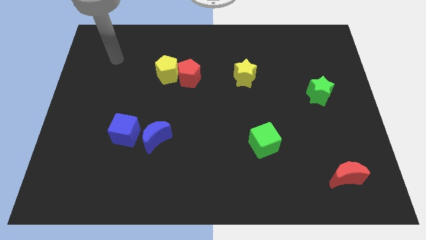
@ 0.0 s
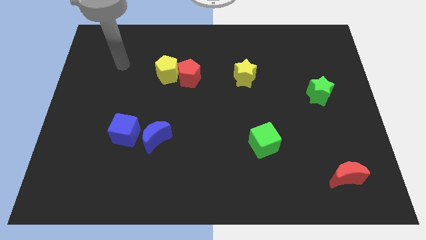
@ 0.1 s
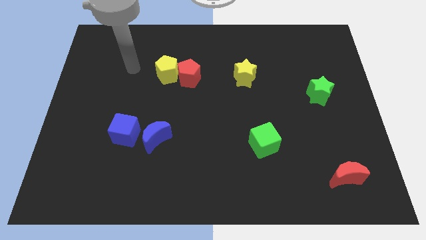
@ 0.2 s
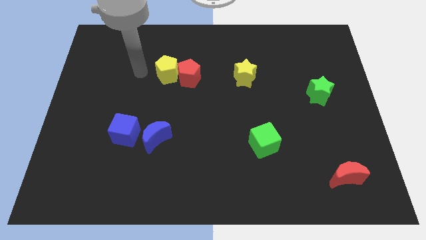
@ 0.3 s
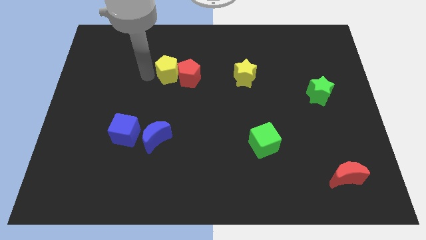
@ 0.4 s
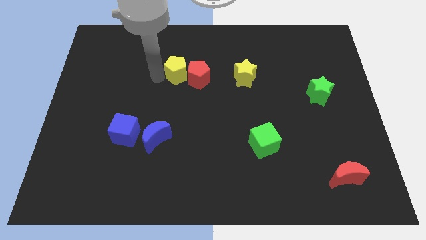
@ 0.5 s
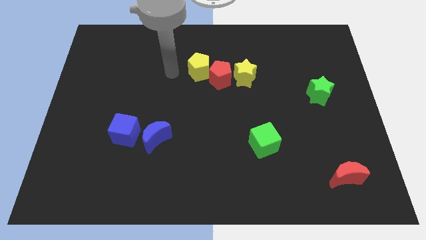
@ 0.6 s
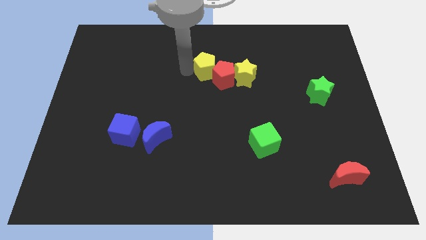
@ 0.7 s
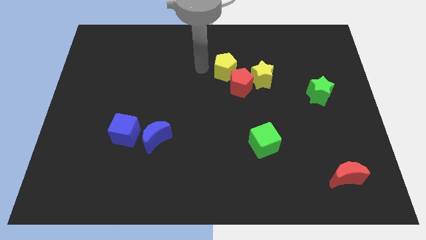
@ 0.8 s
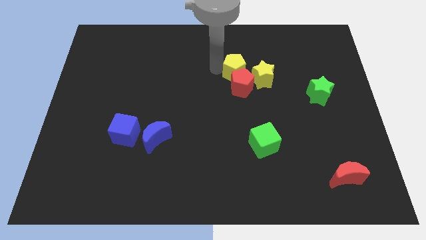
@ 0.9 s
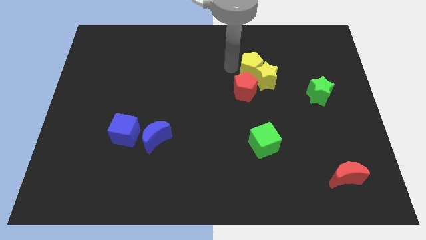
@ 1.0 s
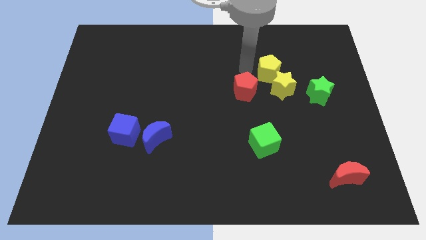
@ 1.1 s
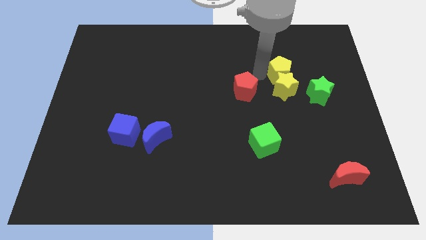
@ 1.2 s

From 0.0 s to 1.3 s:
pull the red pentagon apart from the yellow pentagon

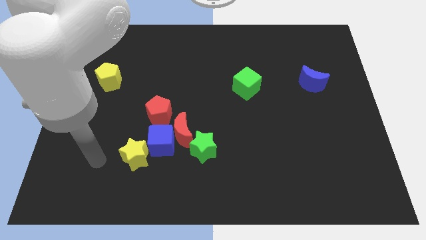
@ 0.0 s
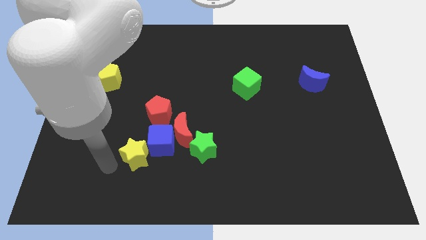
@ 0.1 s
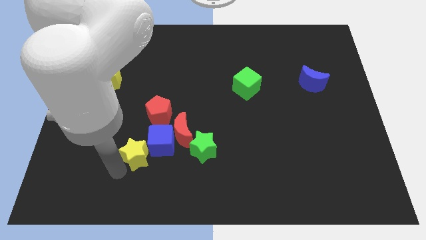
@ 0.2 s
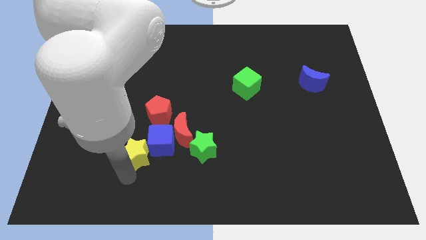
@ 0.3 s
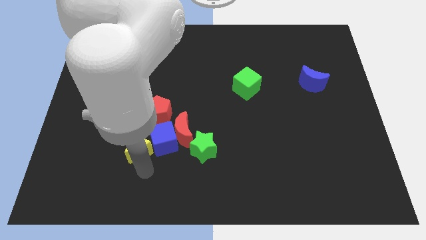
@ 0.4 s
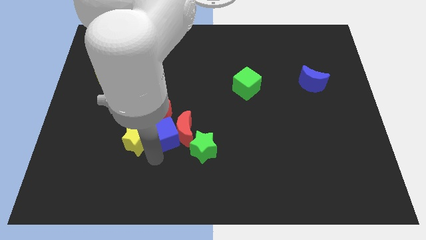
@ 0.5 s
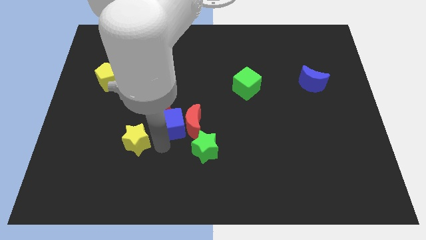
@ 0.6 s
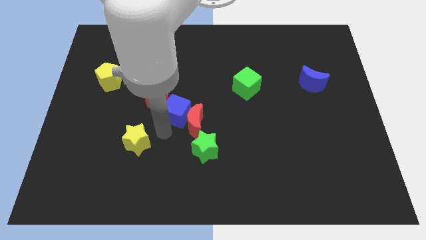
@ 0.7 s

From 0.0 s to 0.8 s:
pull the yellow star apart from the blue cube

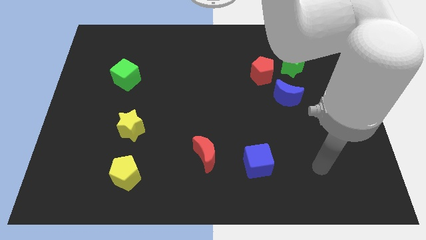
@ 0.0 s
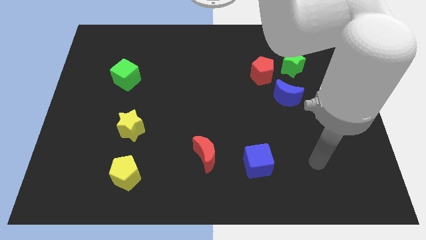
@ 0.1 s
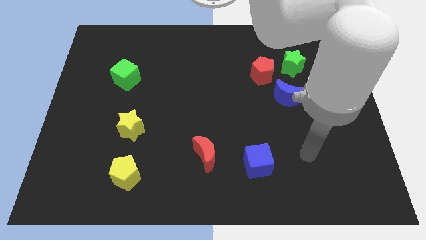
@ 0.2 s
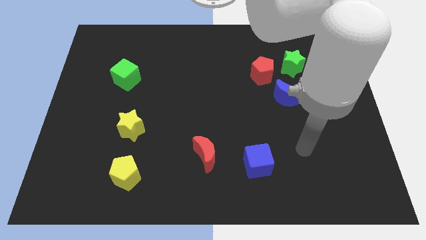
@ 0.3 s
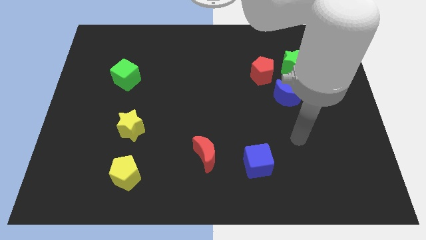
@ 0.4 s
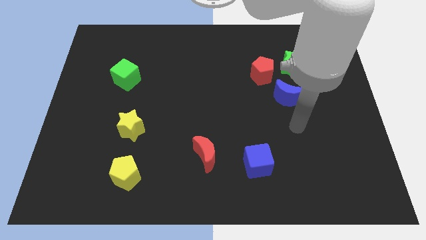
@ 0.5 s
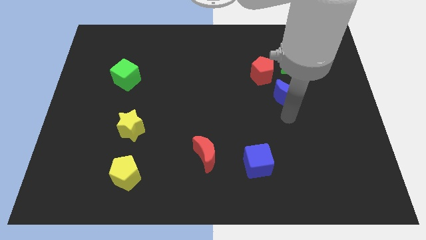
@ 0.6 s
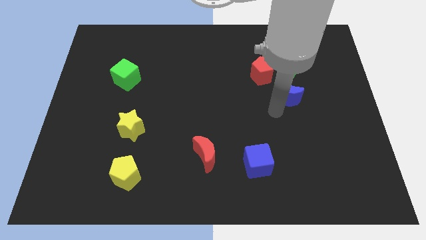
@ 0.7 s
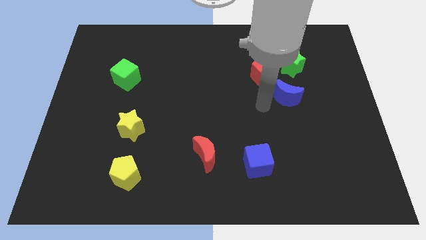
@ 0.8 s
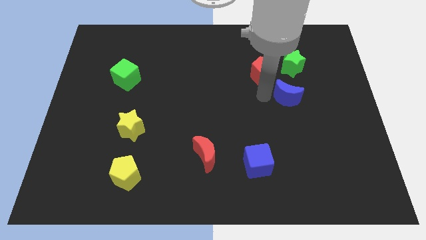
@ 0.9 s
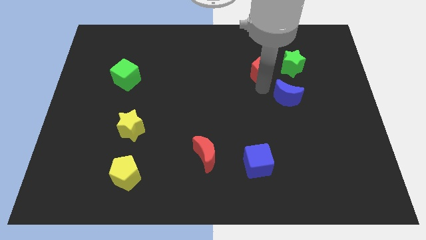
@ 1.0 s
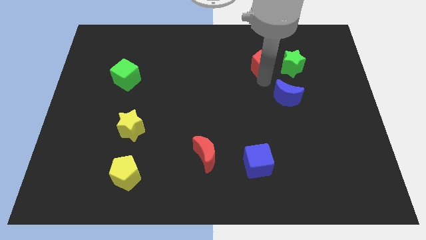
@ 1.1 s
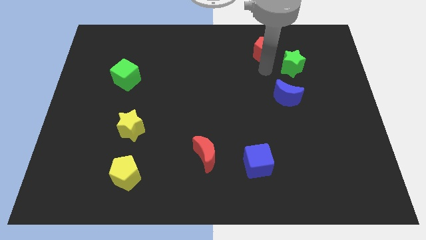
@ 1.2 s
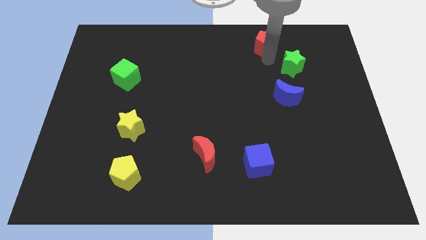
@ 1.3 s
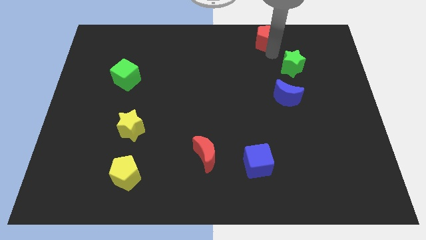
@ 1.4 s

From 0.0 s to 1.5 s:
pull the green star apart from the red pentagon

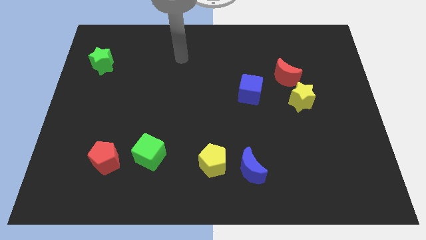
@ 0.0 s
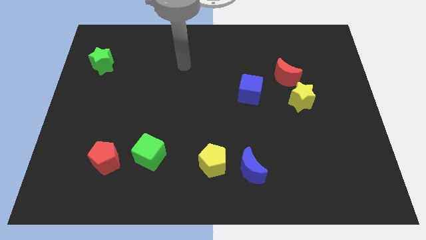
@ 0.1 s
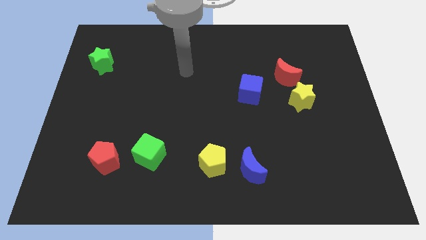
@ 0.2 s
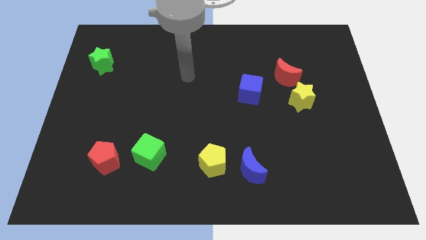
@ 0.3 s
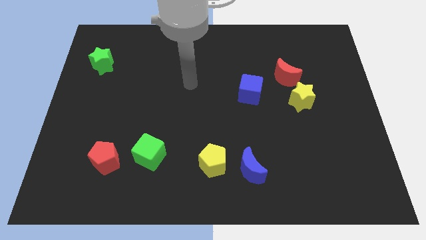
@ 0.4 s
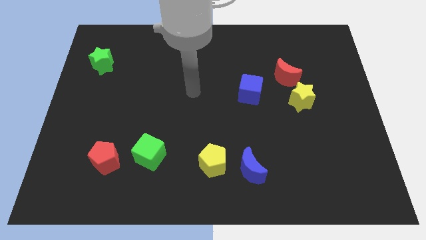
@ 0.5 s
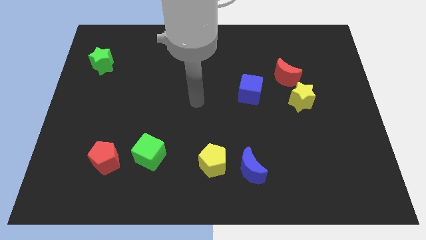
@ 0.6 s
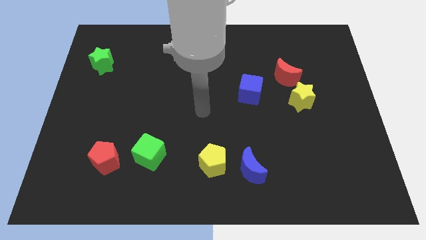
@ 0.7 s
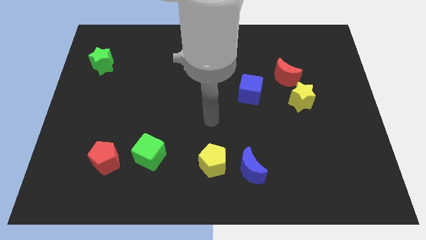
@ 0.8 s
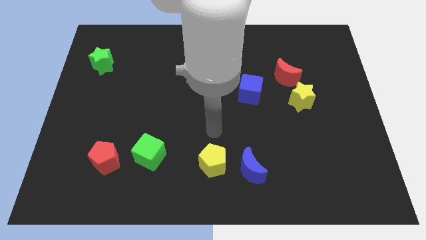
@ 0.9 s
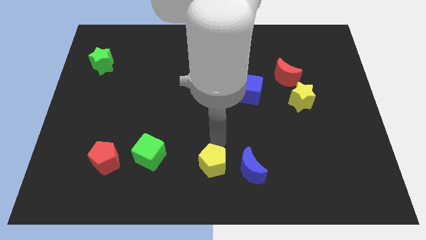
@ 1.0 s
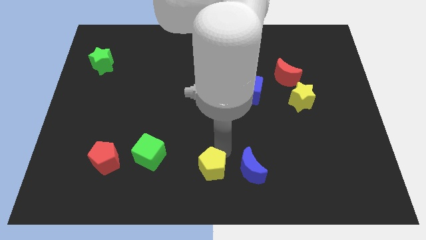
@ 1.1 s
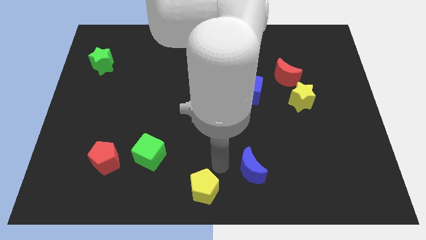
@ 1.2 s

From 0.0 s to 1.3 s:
separate the blue moon from the yellow pentagon

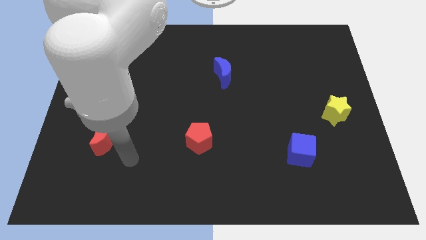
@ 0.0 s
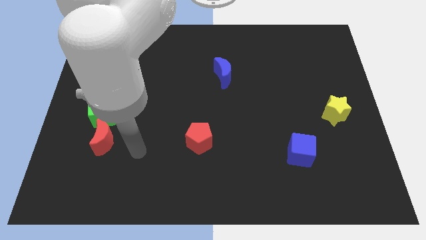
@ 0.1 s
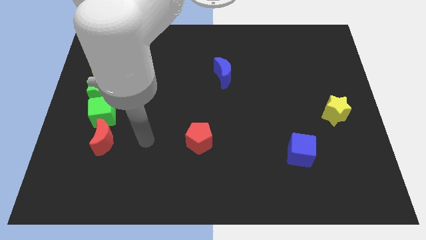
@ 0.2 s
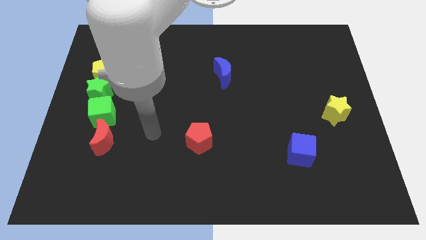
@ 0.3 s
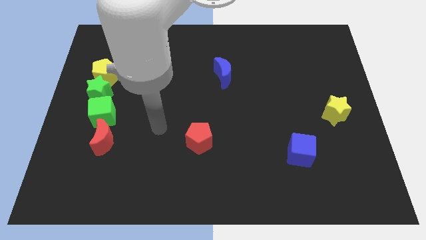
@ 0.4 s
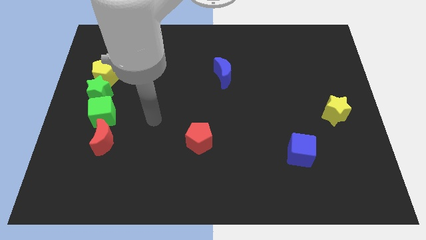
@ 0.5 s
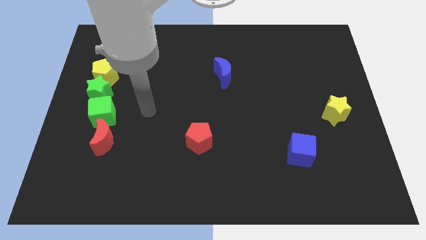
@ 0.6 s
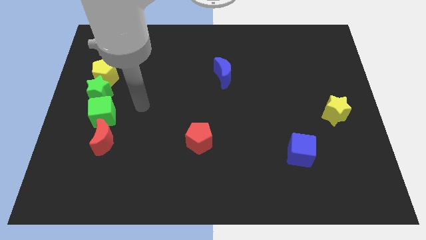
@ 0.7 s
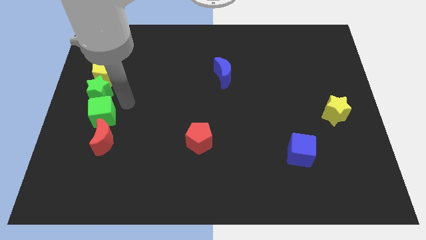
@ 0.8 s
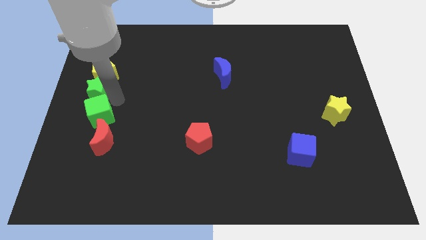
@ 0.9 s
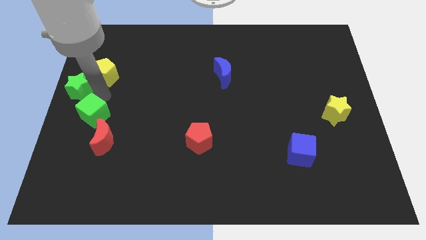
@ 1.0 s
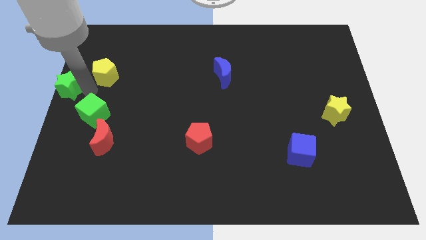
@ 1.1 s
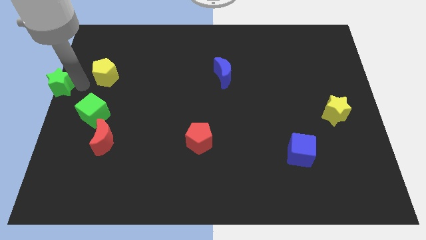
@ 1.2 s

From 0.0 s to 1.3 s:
move the yellow pentagon away from the green star

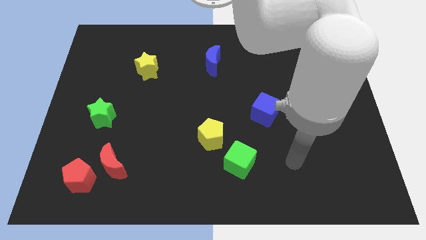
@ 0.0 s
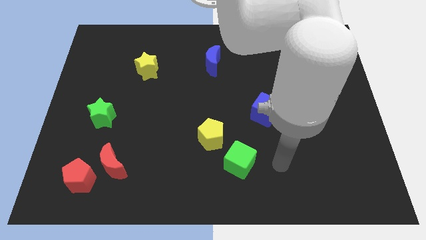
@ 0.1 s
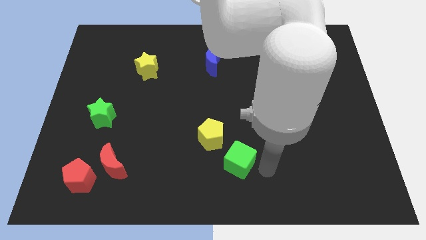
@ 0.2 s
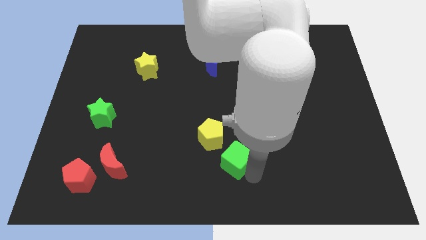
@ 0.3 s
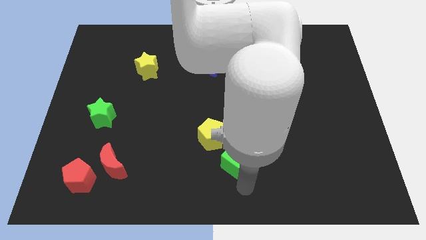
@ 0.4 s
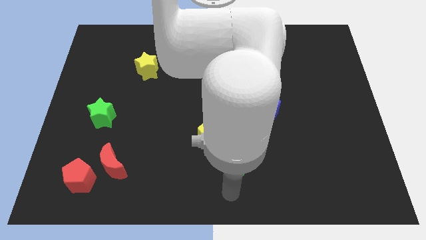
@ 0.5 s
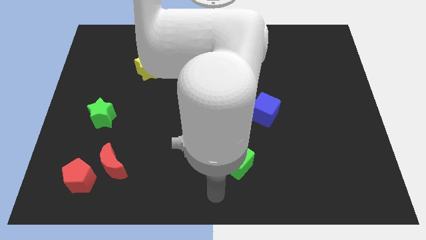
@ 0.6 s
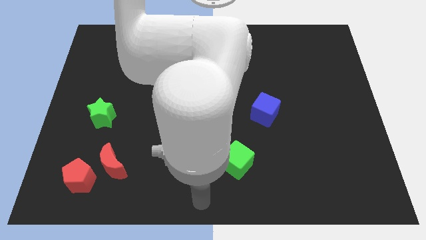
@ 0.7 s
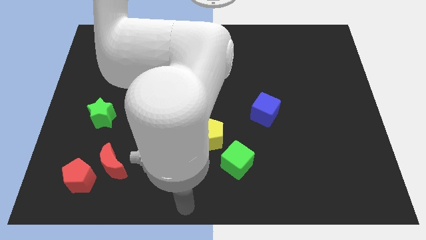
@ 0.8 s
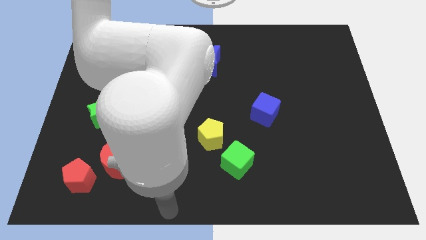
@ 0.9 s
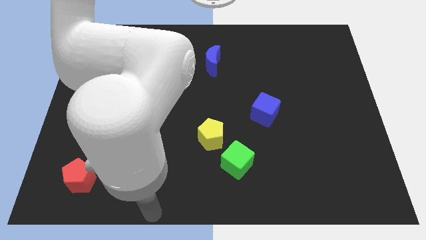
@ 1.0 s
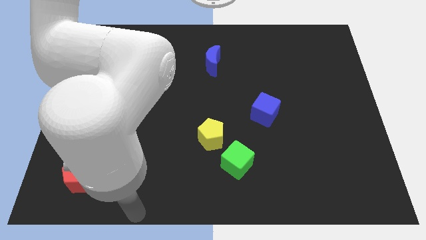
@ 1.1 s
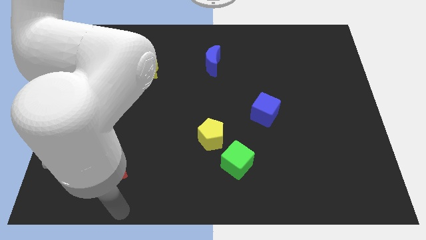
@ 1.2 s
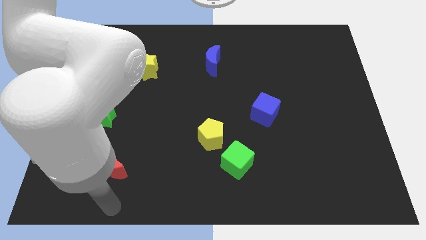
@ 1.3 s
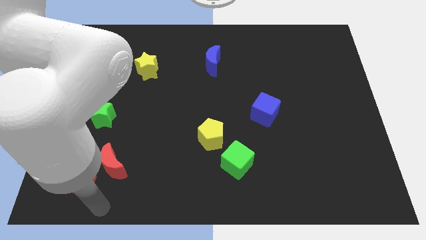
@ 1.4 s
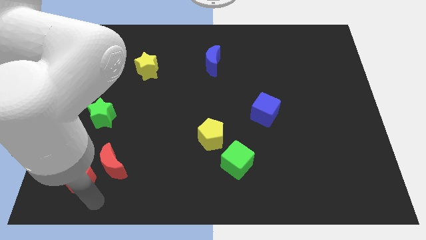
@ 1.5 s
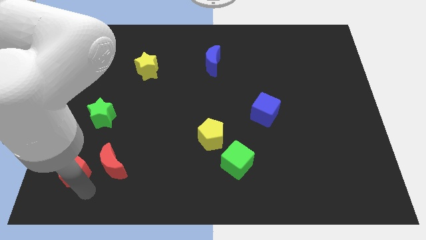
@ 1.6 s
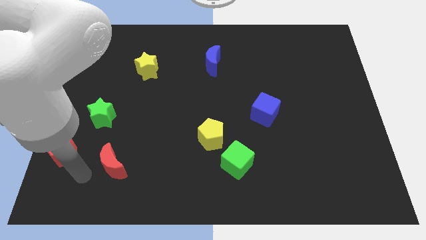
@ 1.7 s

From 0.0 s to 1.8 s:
move the red moon away from the red pentagon

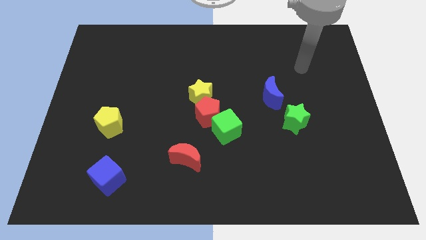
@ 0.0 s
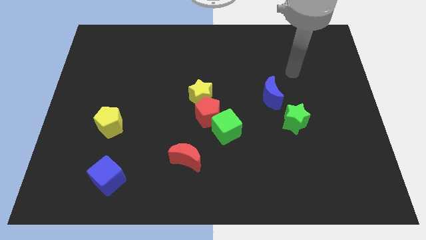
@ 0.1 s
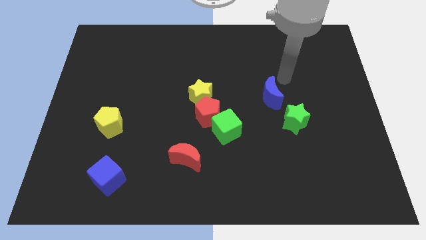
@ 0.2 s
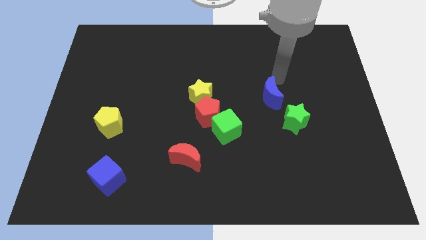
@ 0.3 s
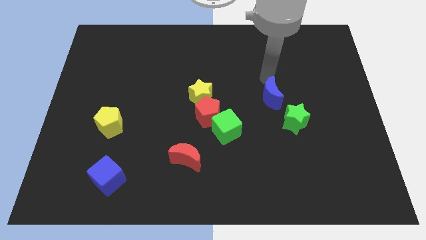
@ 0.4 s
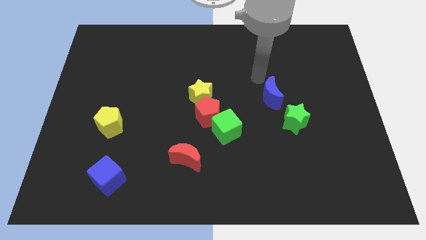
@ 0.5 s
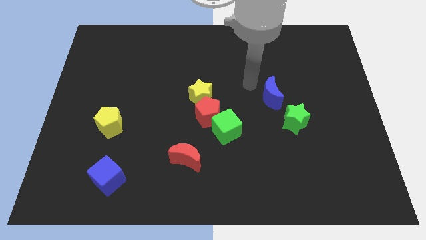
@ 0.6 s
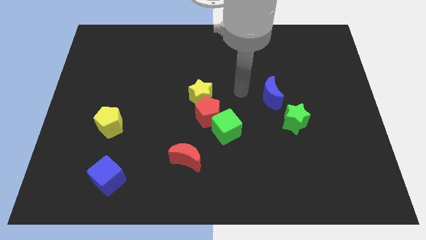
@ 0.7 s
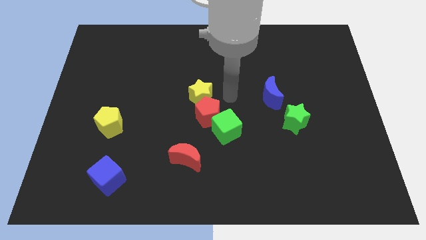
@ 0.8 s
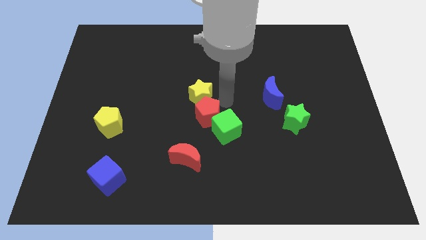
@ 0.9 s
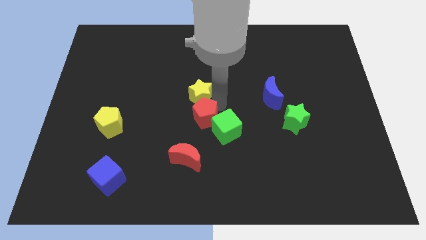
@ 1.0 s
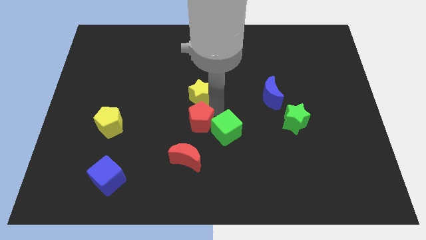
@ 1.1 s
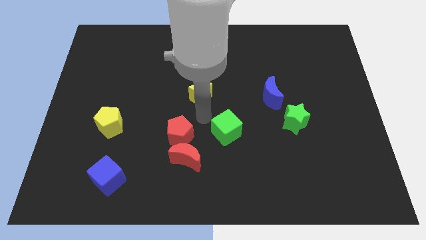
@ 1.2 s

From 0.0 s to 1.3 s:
pull the yellow star apart from the red pentagon
